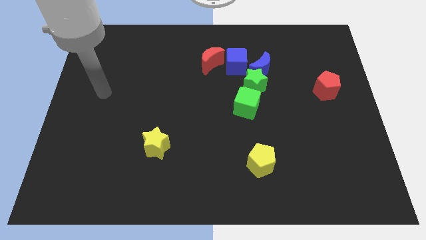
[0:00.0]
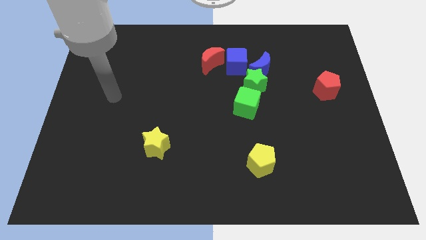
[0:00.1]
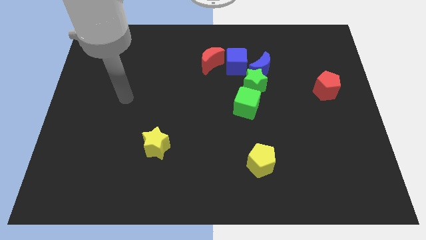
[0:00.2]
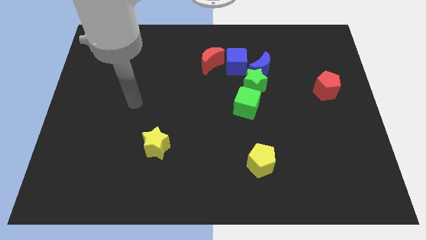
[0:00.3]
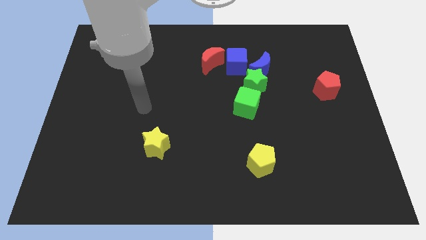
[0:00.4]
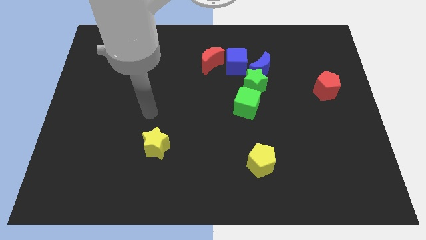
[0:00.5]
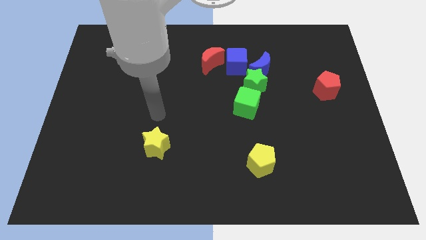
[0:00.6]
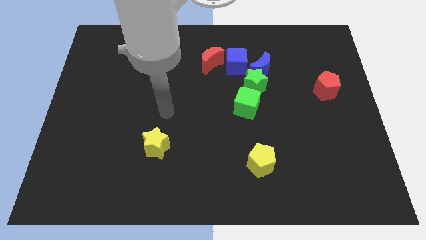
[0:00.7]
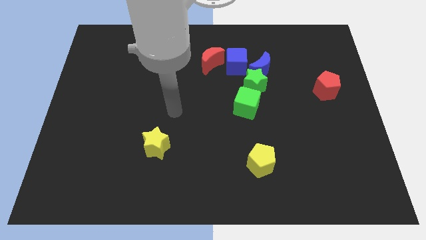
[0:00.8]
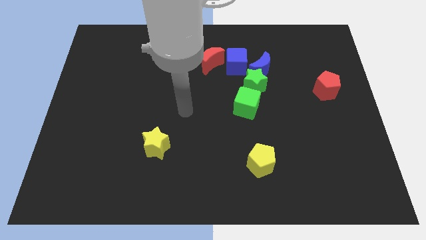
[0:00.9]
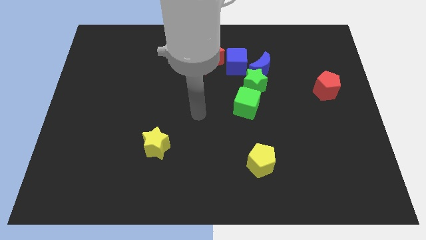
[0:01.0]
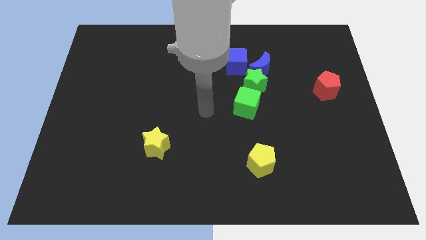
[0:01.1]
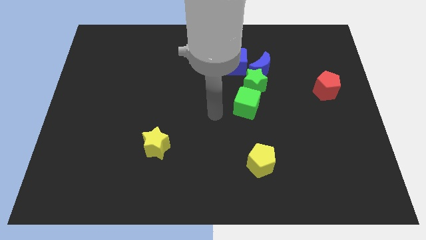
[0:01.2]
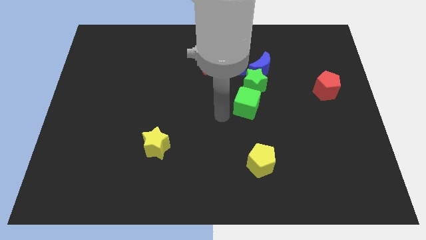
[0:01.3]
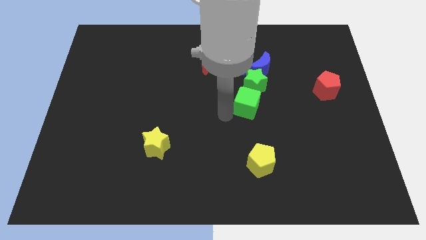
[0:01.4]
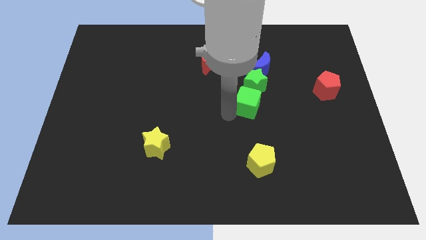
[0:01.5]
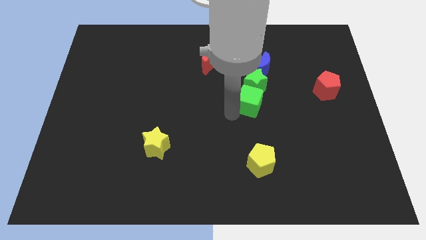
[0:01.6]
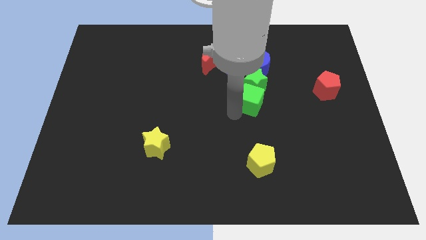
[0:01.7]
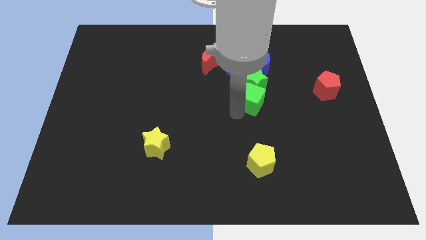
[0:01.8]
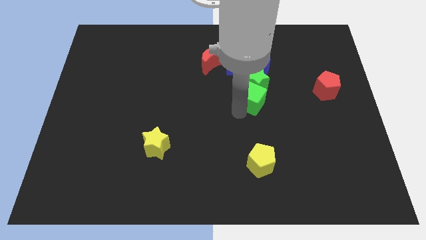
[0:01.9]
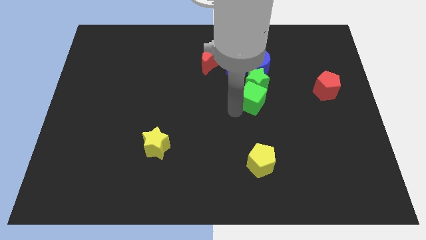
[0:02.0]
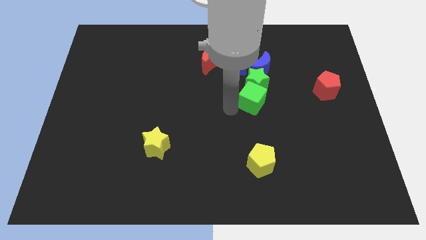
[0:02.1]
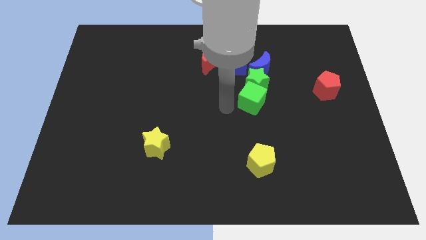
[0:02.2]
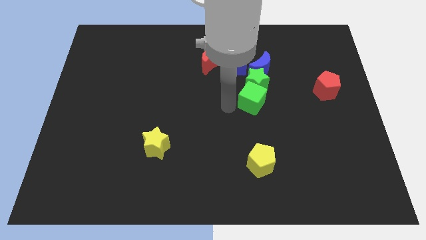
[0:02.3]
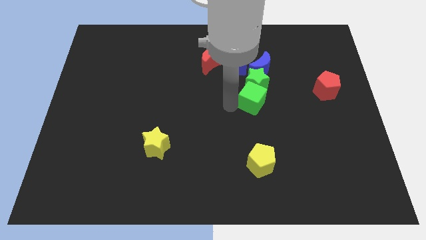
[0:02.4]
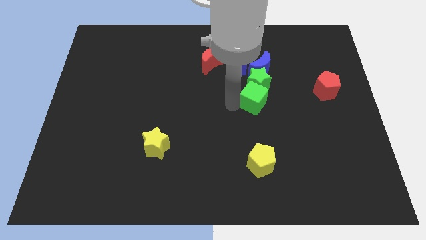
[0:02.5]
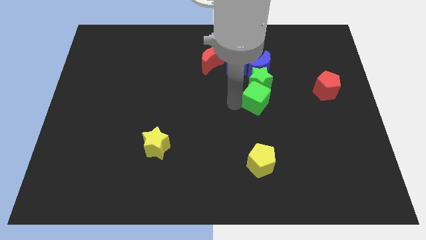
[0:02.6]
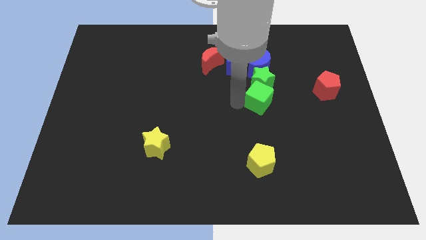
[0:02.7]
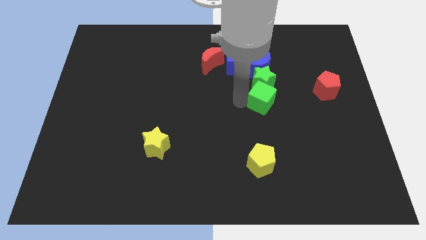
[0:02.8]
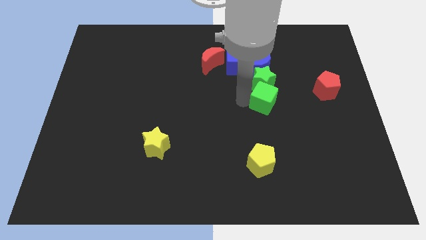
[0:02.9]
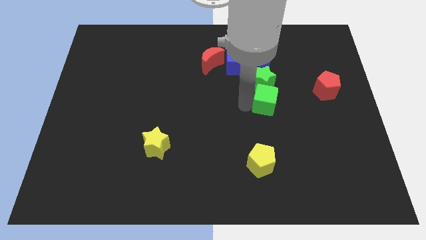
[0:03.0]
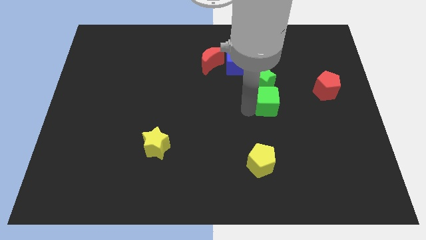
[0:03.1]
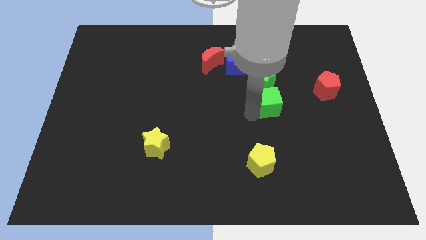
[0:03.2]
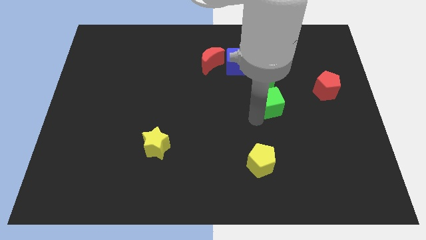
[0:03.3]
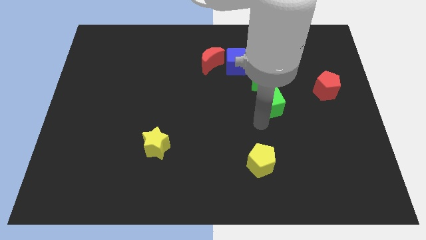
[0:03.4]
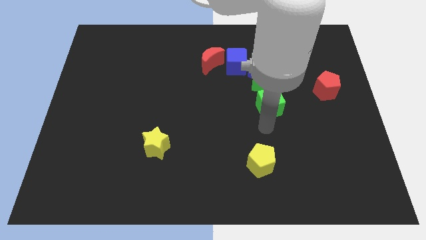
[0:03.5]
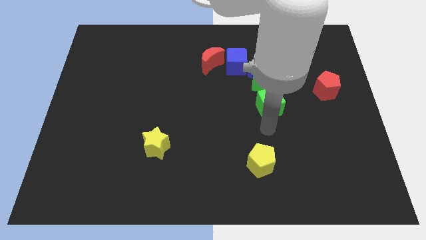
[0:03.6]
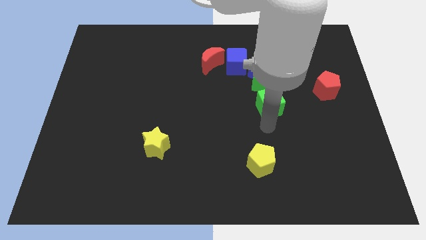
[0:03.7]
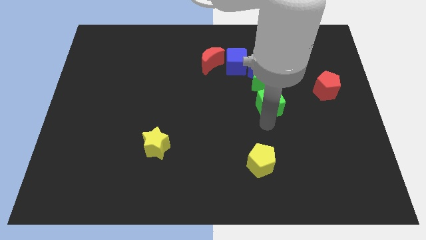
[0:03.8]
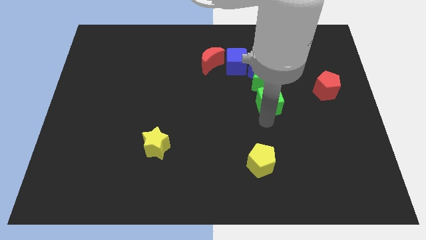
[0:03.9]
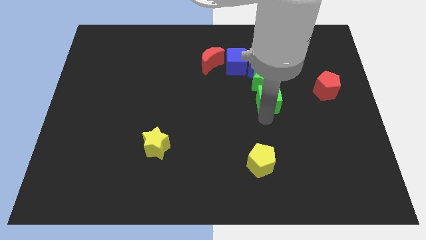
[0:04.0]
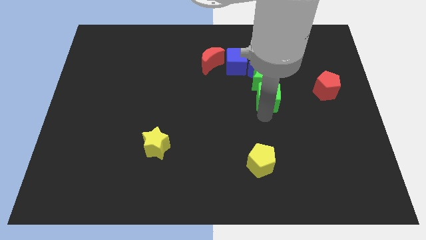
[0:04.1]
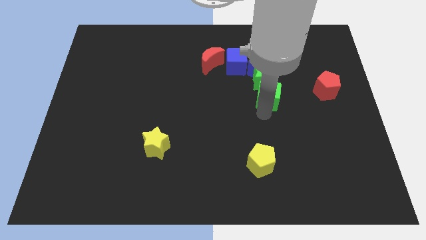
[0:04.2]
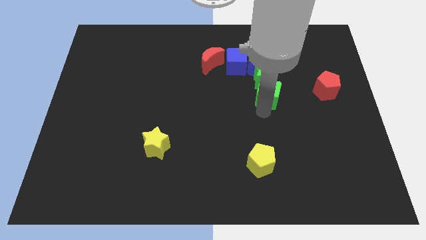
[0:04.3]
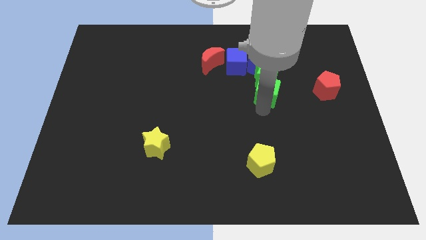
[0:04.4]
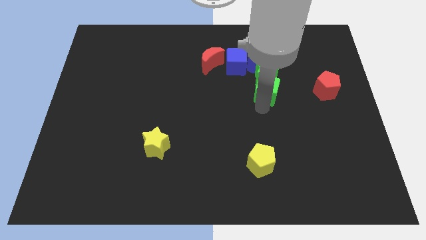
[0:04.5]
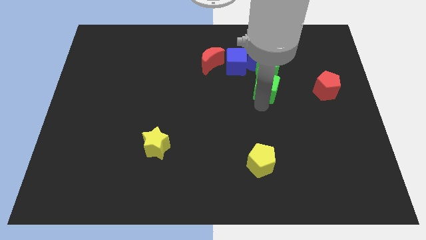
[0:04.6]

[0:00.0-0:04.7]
slide the green cube somewhat diagonally upwards and to the right

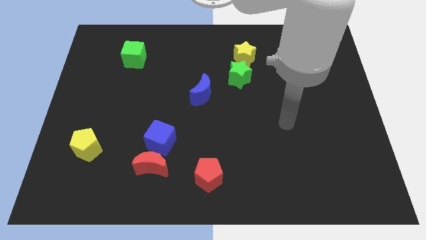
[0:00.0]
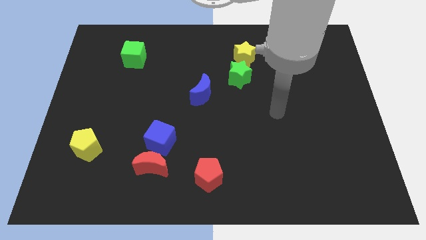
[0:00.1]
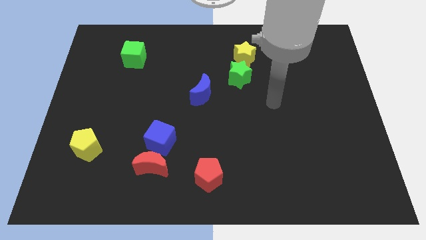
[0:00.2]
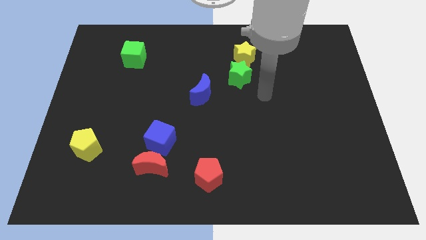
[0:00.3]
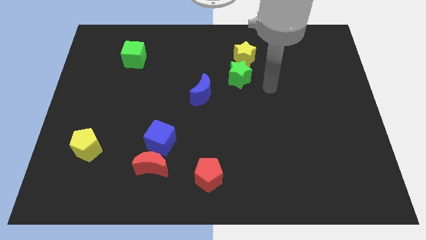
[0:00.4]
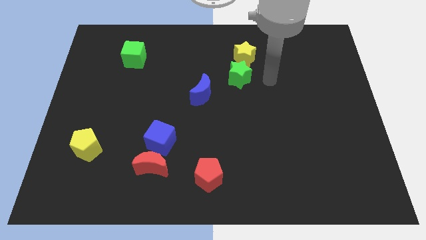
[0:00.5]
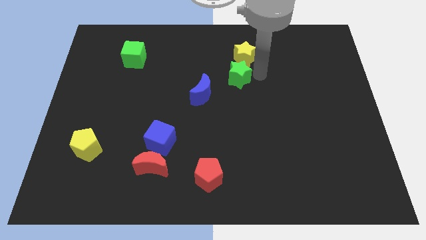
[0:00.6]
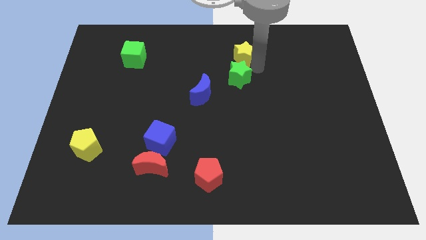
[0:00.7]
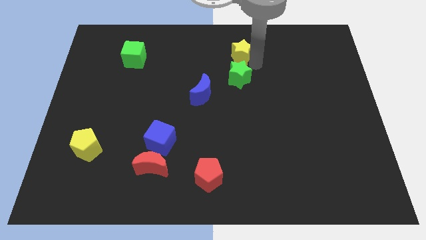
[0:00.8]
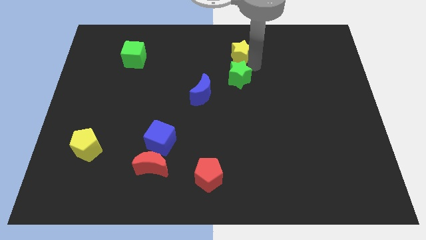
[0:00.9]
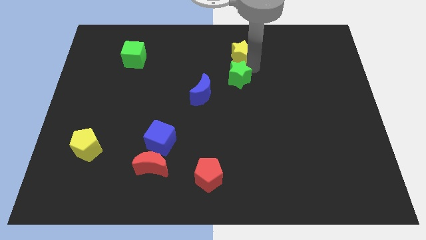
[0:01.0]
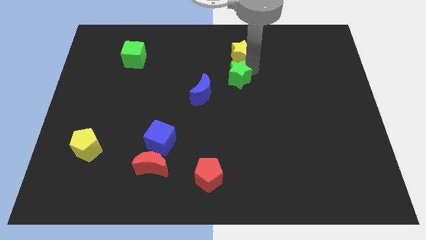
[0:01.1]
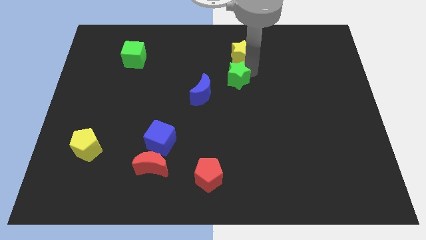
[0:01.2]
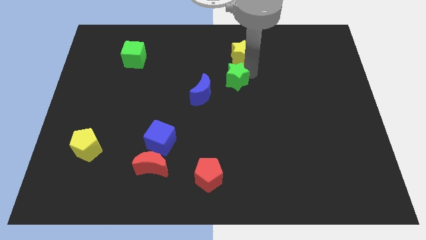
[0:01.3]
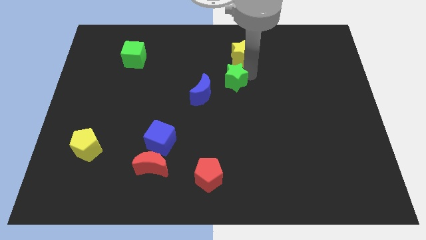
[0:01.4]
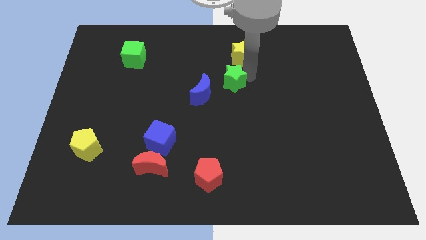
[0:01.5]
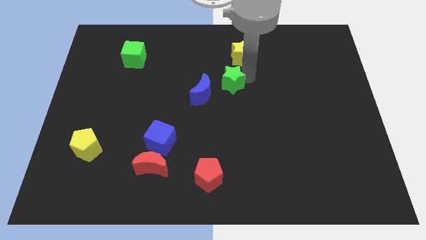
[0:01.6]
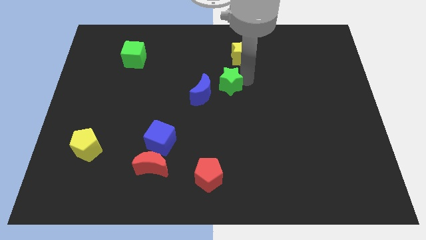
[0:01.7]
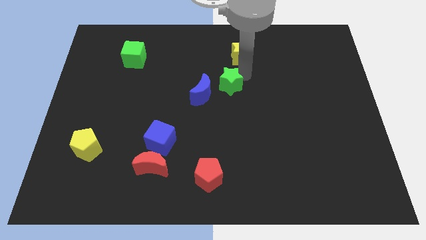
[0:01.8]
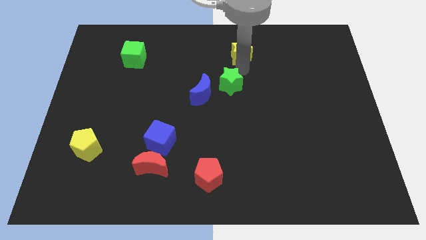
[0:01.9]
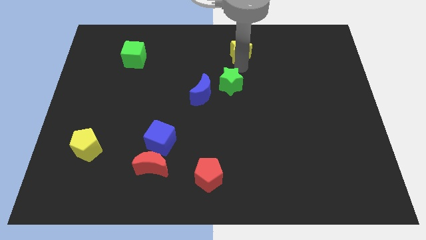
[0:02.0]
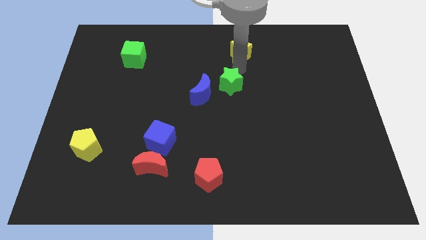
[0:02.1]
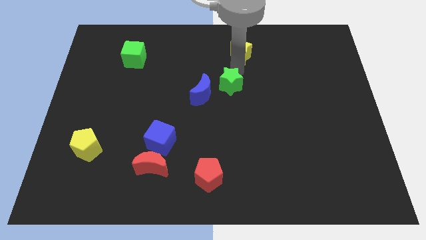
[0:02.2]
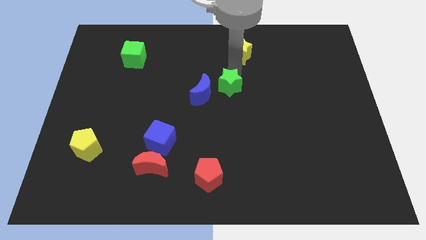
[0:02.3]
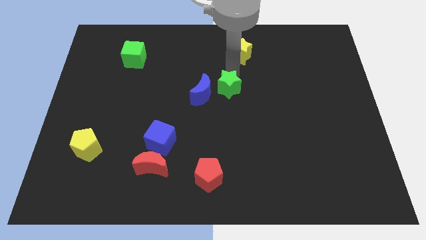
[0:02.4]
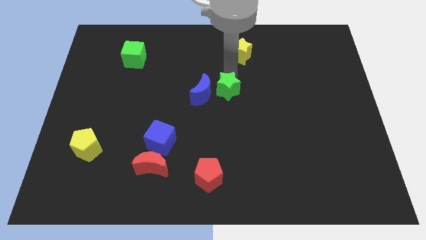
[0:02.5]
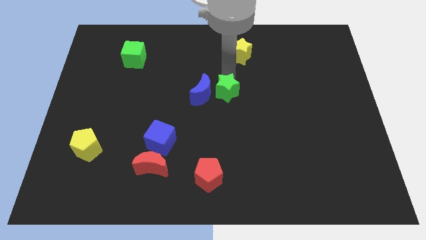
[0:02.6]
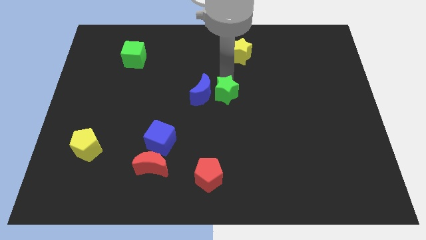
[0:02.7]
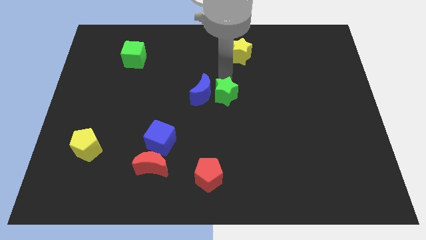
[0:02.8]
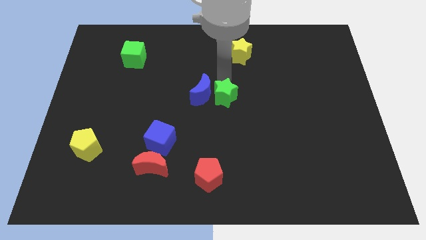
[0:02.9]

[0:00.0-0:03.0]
move the green star downwards and to the left a little

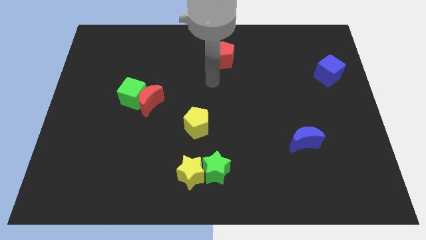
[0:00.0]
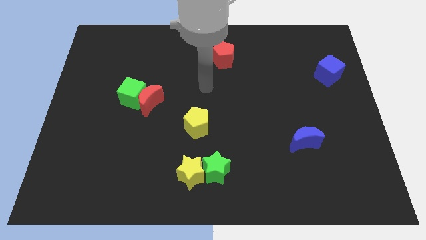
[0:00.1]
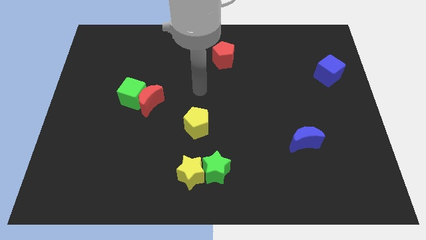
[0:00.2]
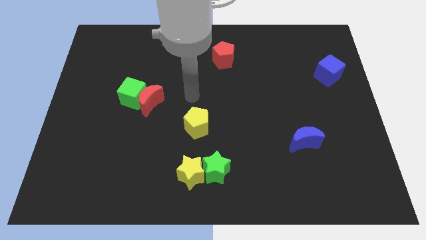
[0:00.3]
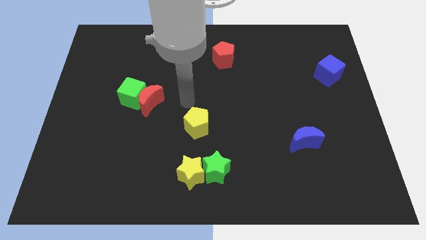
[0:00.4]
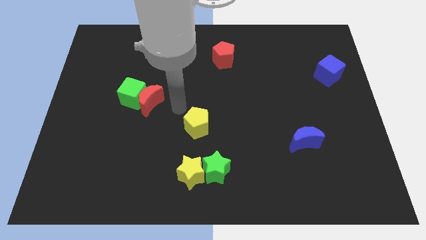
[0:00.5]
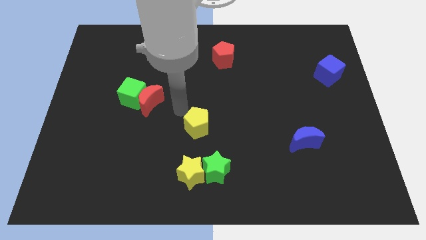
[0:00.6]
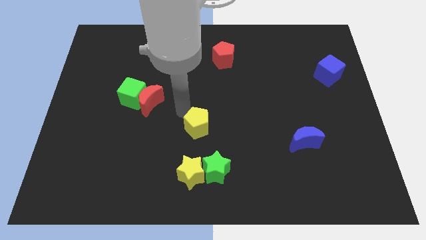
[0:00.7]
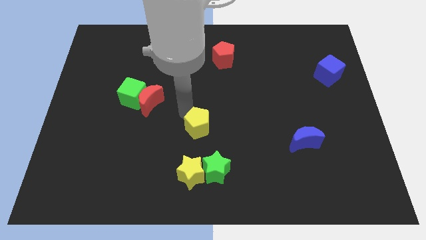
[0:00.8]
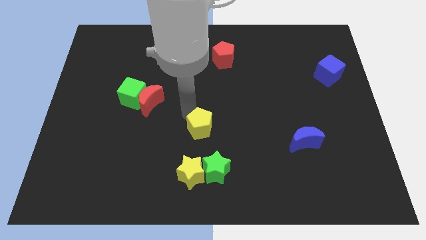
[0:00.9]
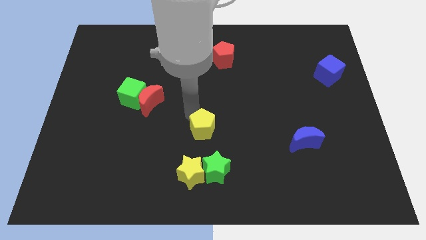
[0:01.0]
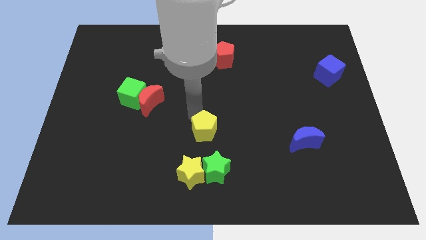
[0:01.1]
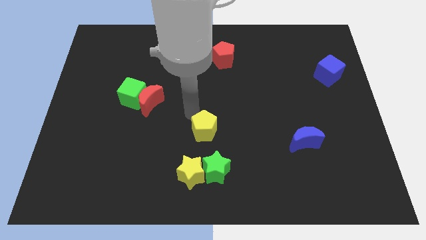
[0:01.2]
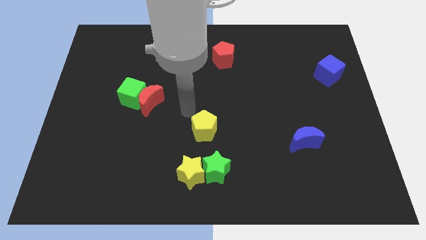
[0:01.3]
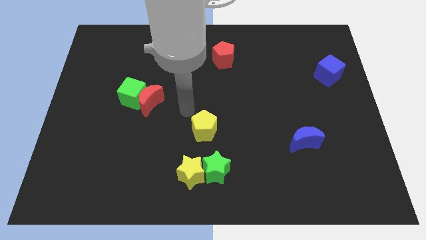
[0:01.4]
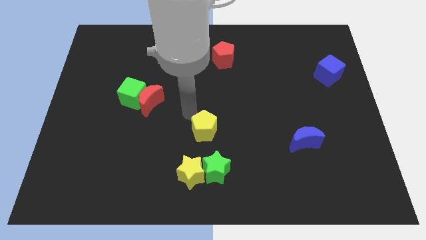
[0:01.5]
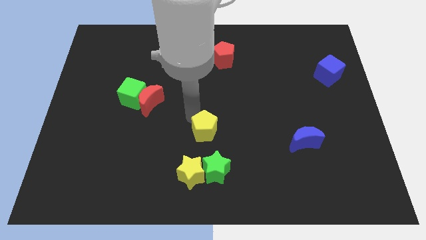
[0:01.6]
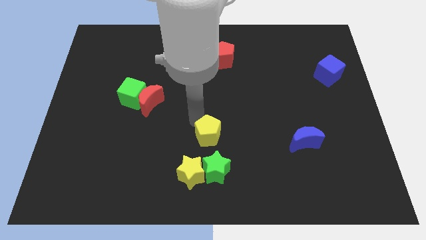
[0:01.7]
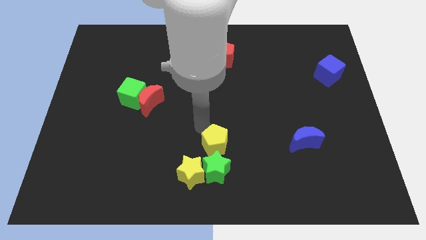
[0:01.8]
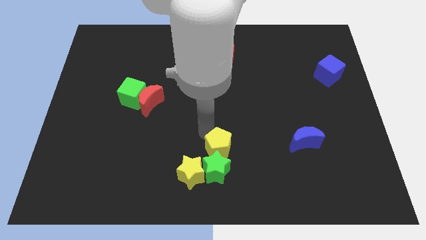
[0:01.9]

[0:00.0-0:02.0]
slide the yellow pentagon a bit downwards and then to the right
